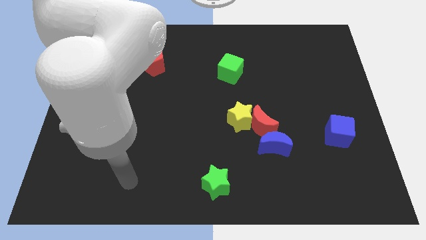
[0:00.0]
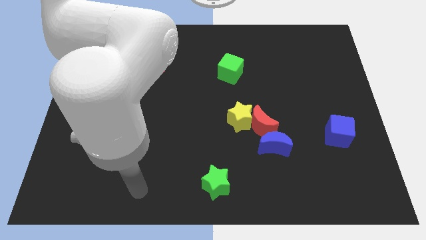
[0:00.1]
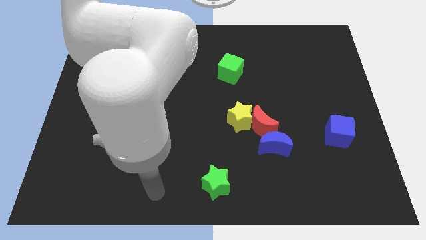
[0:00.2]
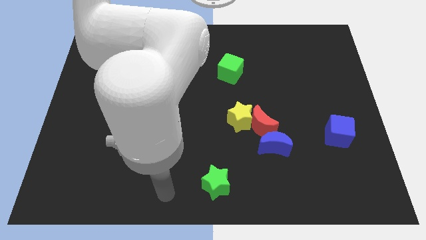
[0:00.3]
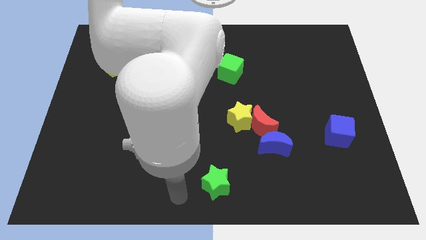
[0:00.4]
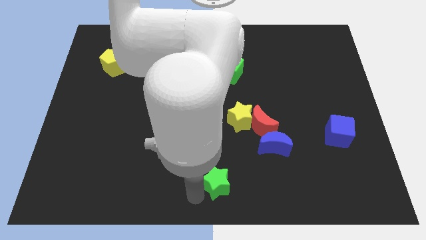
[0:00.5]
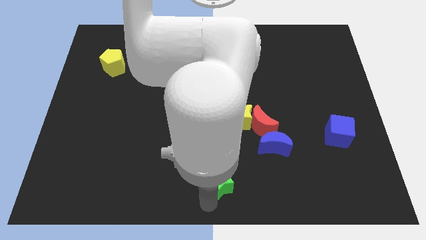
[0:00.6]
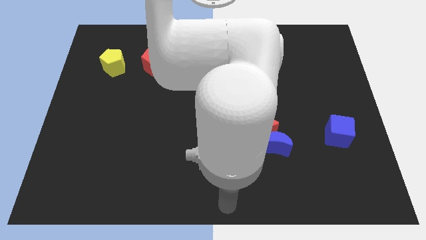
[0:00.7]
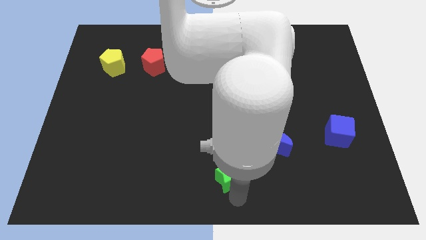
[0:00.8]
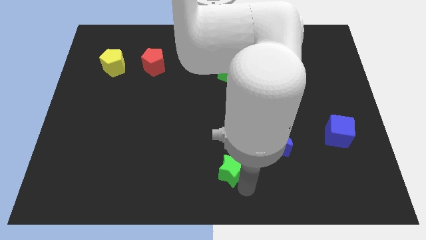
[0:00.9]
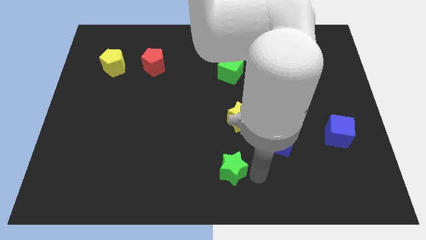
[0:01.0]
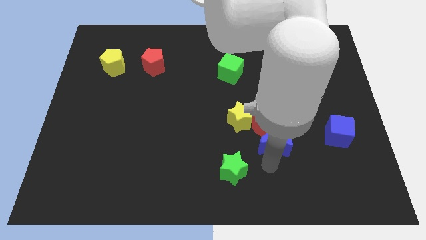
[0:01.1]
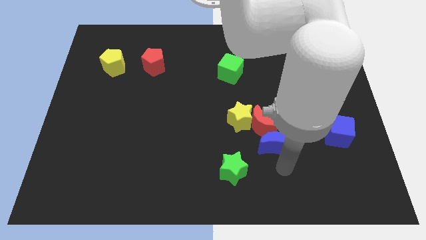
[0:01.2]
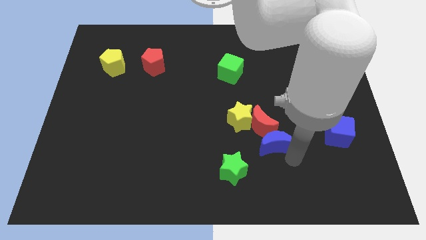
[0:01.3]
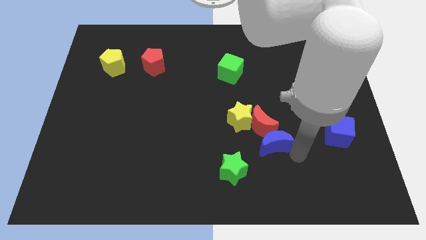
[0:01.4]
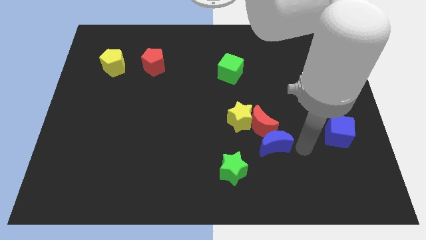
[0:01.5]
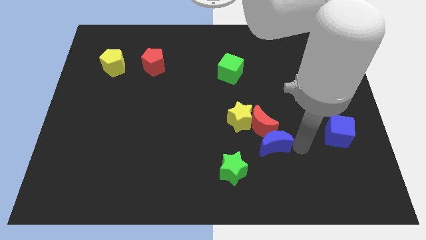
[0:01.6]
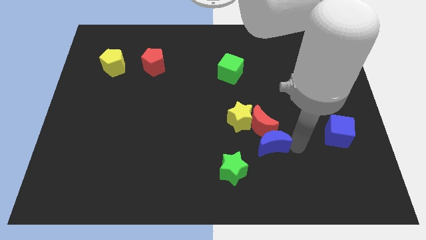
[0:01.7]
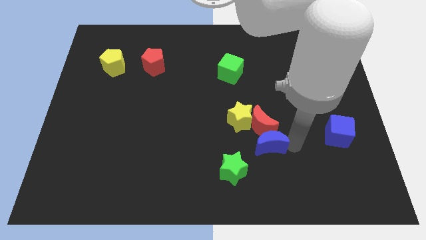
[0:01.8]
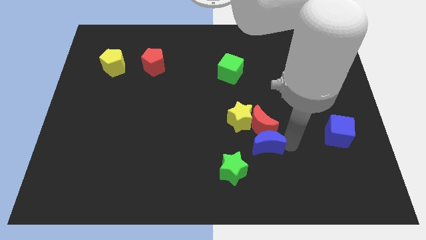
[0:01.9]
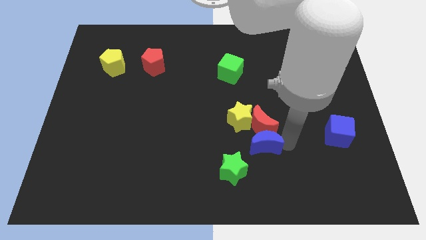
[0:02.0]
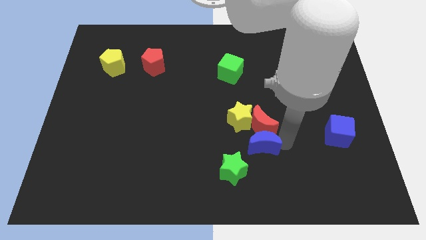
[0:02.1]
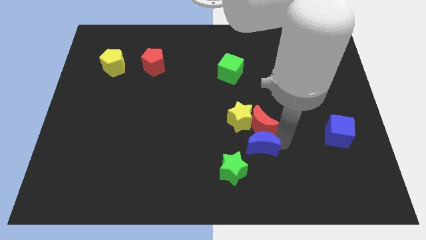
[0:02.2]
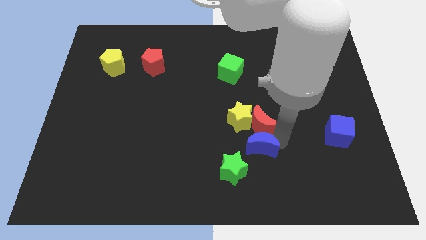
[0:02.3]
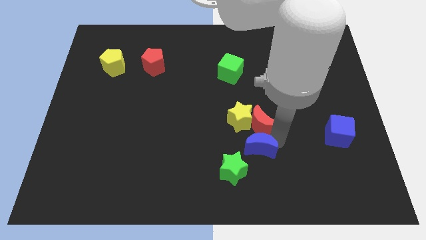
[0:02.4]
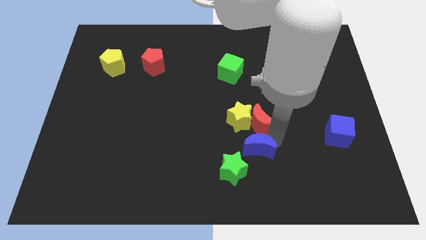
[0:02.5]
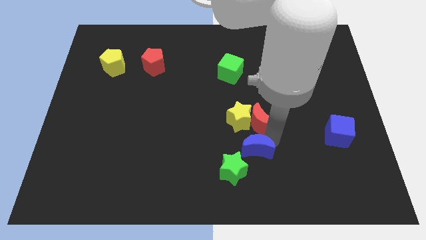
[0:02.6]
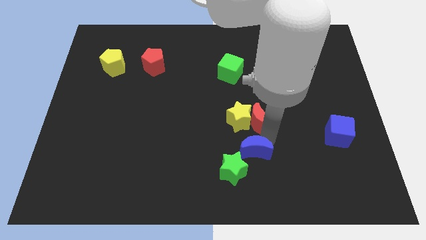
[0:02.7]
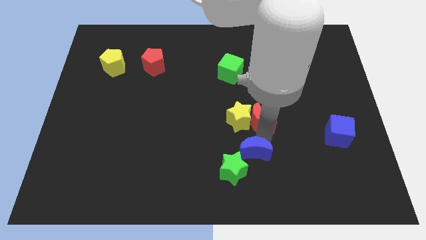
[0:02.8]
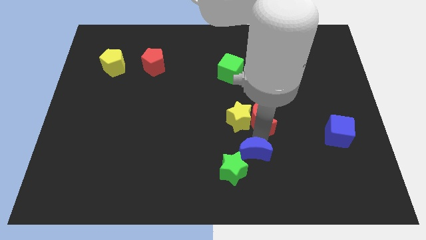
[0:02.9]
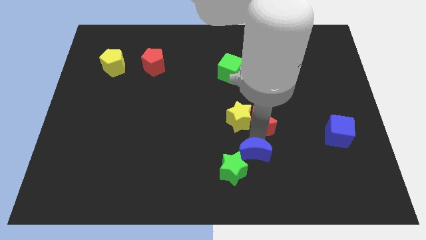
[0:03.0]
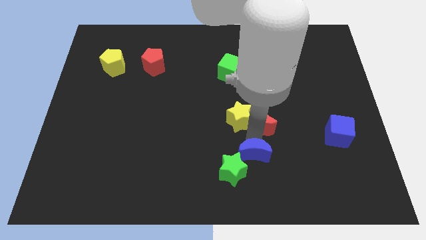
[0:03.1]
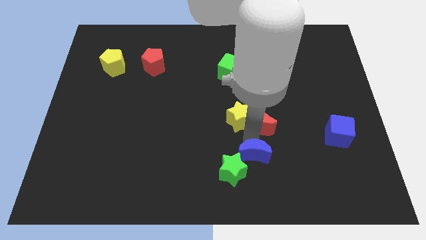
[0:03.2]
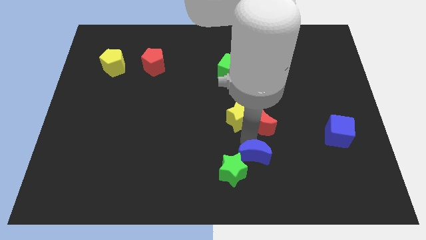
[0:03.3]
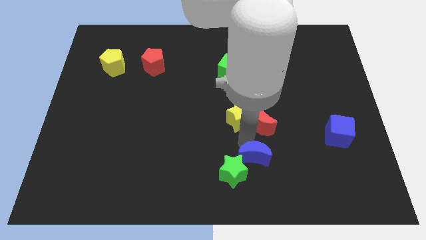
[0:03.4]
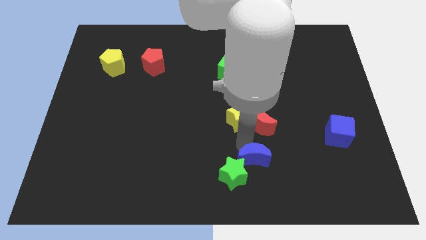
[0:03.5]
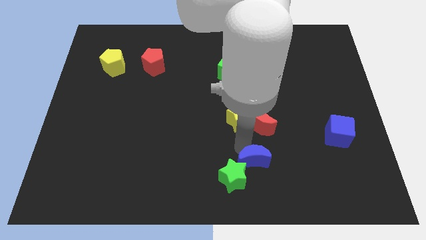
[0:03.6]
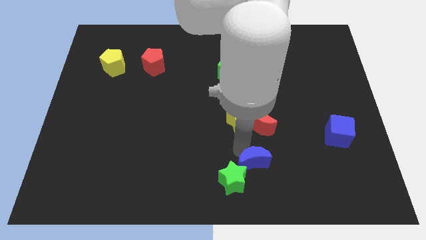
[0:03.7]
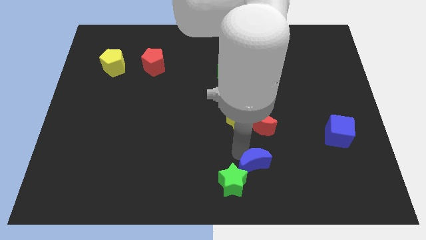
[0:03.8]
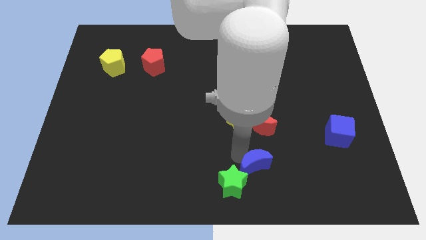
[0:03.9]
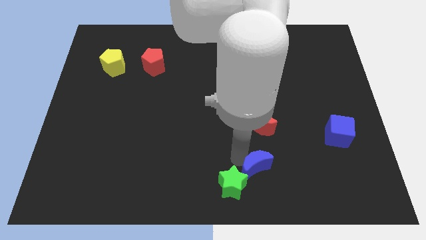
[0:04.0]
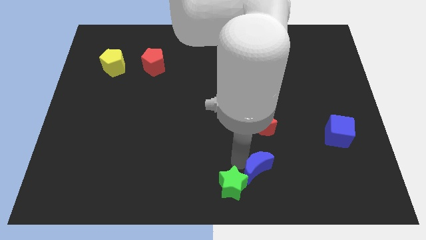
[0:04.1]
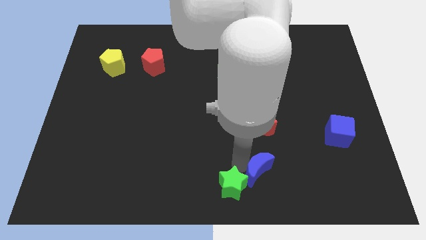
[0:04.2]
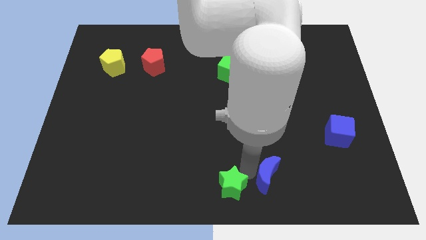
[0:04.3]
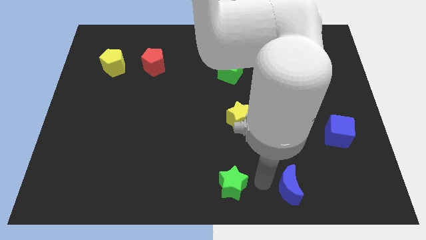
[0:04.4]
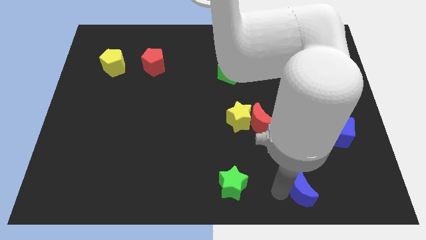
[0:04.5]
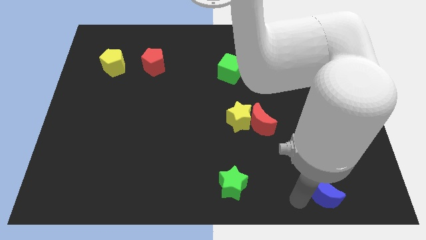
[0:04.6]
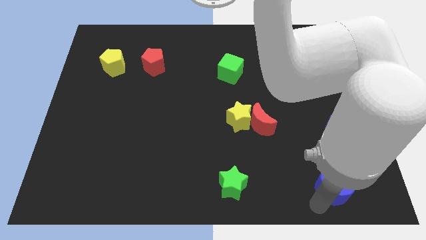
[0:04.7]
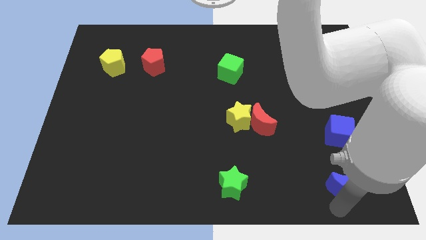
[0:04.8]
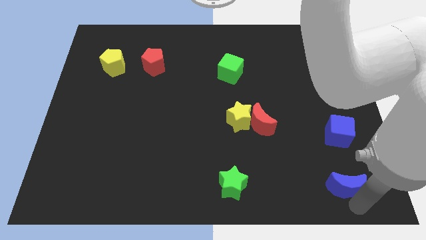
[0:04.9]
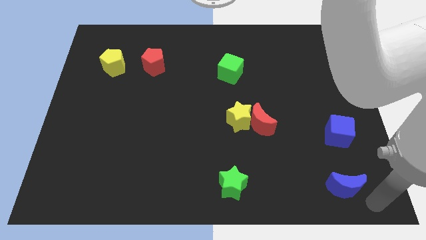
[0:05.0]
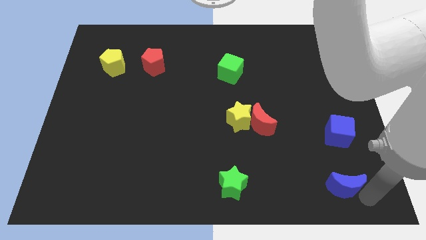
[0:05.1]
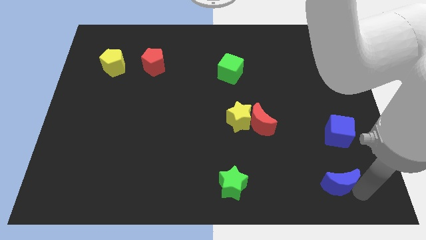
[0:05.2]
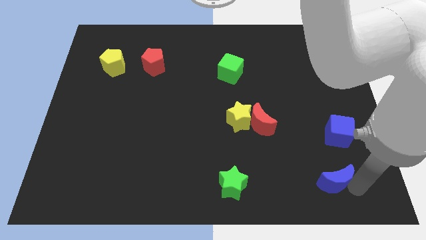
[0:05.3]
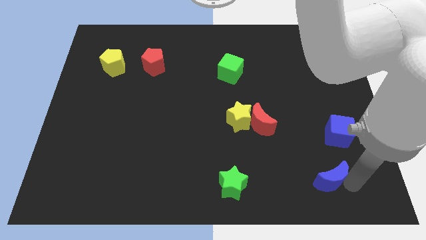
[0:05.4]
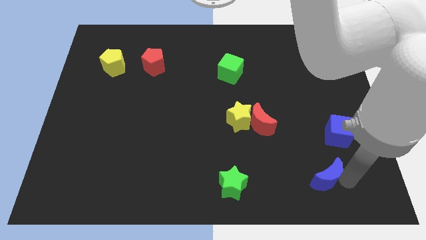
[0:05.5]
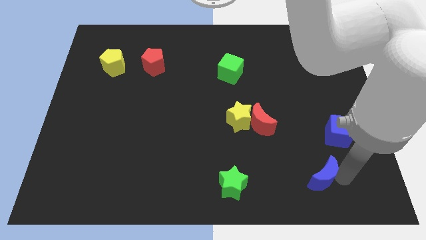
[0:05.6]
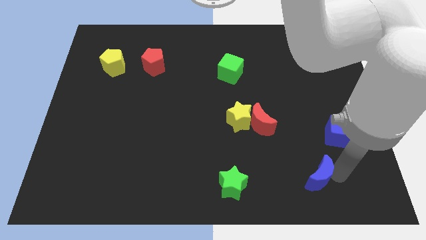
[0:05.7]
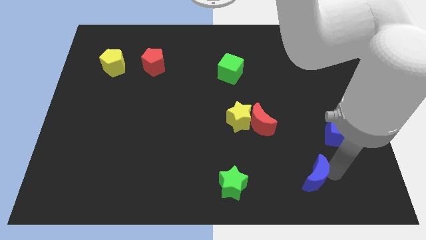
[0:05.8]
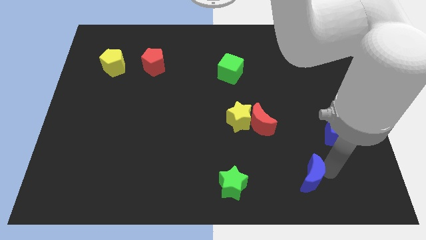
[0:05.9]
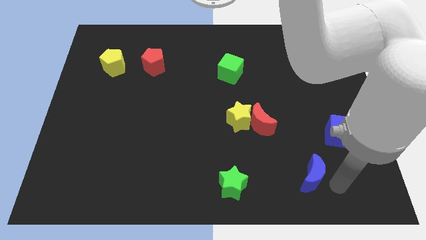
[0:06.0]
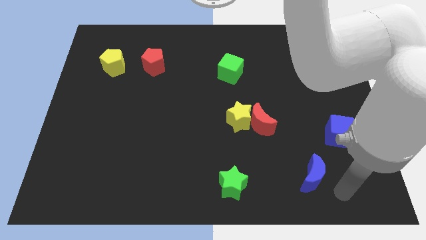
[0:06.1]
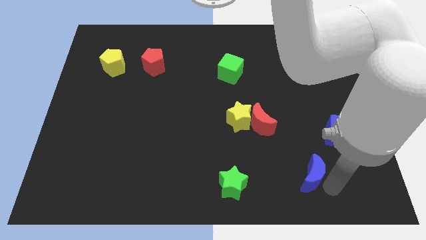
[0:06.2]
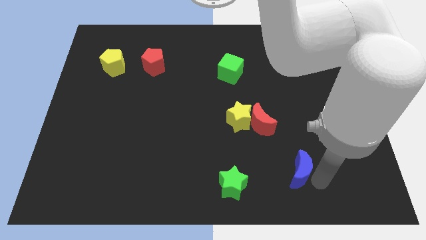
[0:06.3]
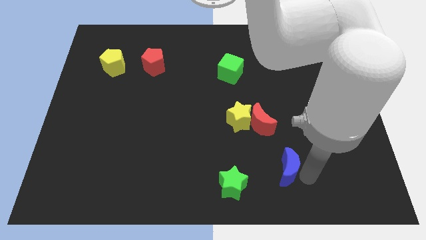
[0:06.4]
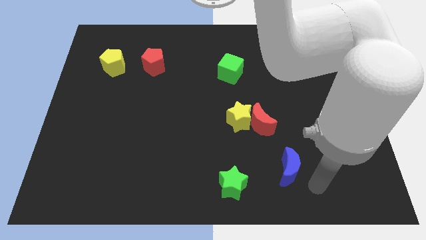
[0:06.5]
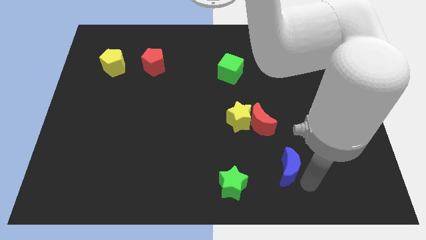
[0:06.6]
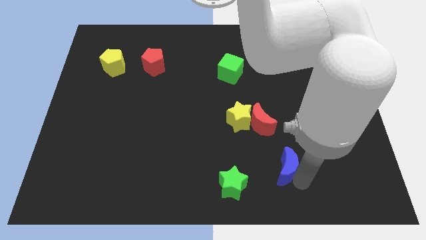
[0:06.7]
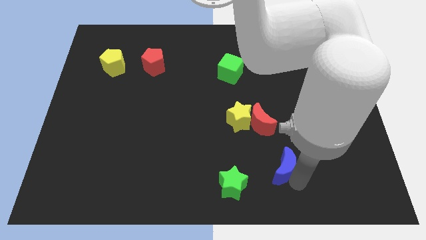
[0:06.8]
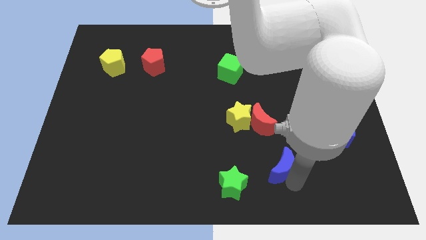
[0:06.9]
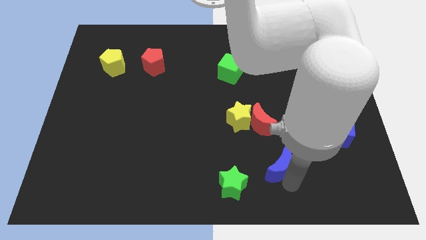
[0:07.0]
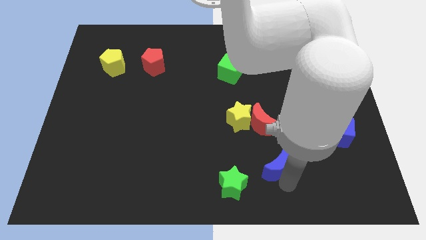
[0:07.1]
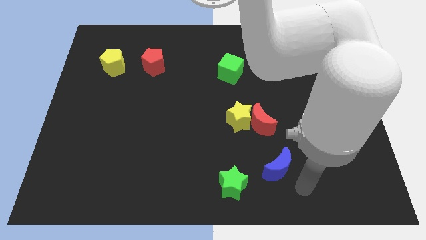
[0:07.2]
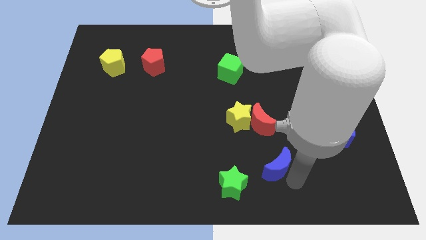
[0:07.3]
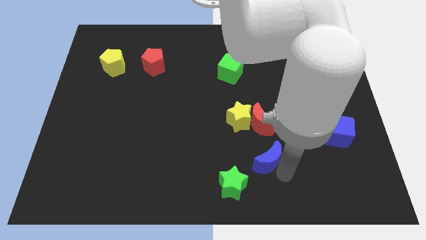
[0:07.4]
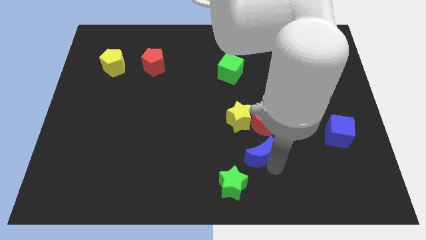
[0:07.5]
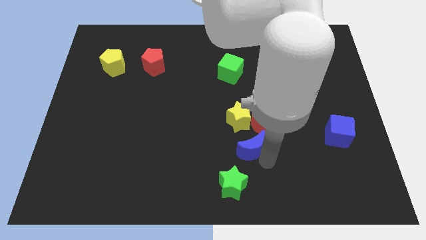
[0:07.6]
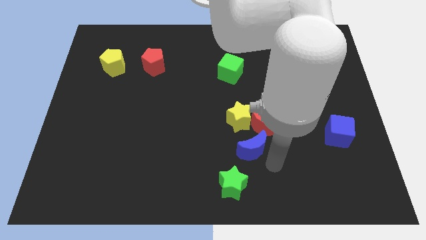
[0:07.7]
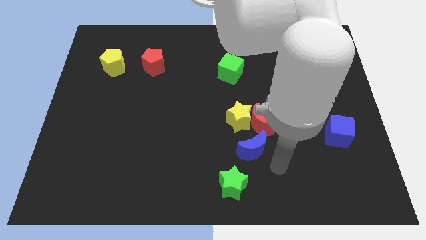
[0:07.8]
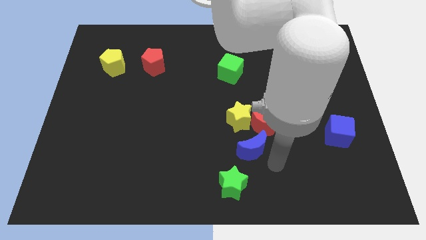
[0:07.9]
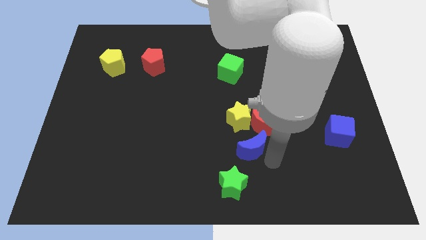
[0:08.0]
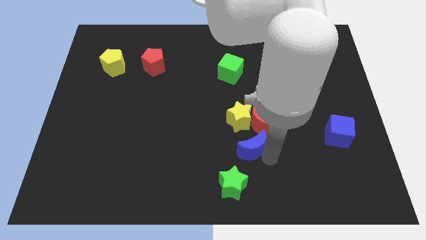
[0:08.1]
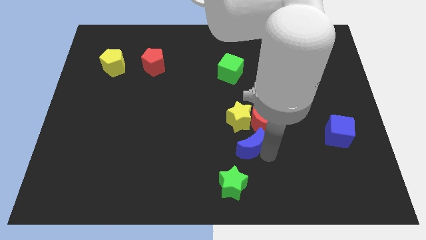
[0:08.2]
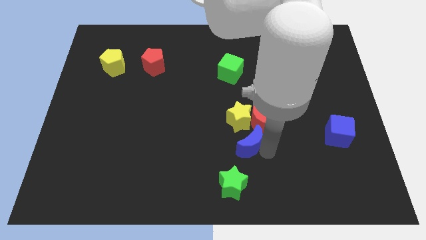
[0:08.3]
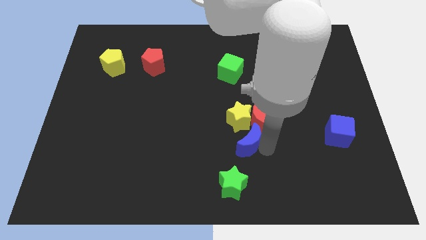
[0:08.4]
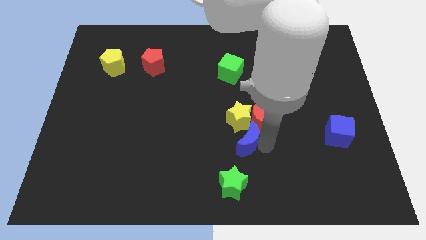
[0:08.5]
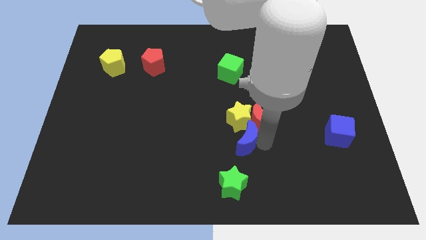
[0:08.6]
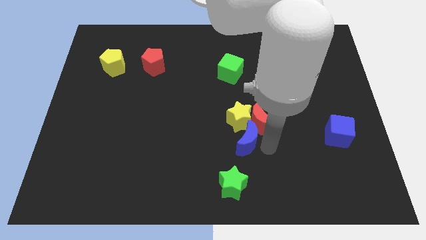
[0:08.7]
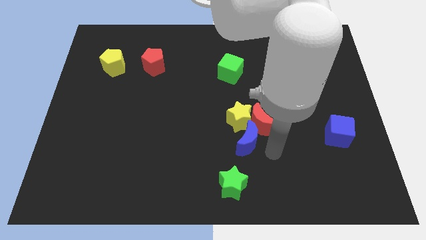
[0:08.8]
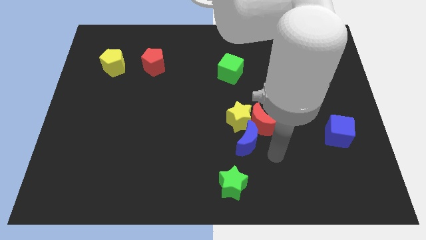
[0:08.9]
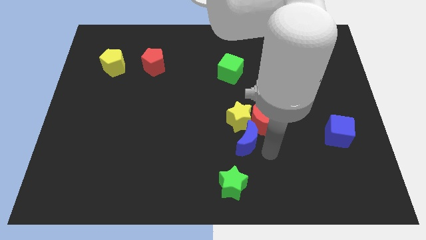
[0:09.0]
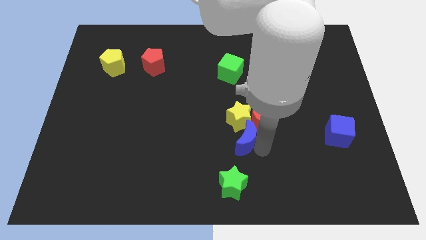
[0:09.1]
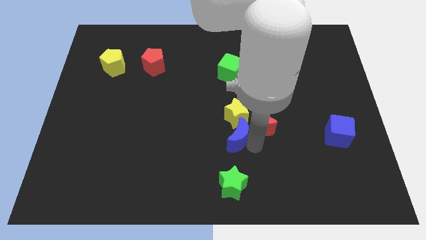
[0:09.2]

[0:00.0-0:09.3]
move the blue moon to the middle
